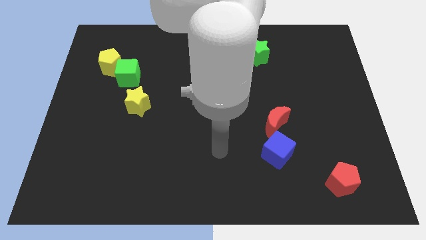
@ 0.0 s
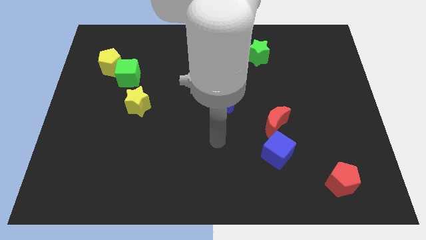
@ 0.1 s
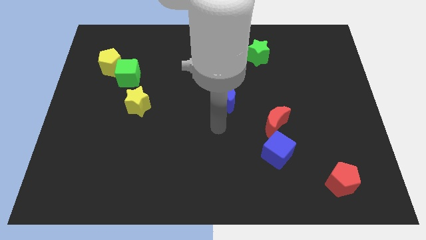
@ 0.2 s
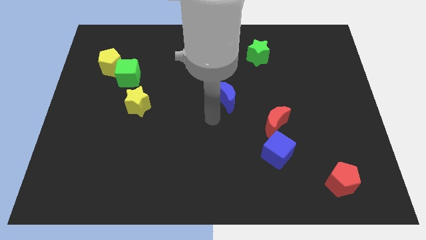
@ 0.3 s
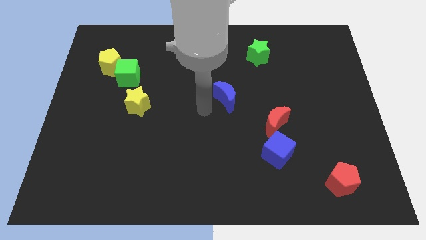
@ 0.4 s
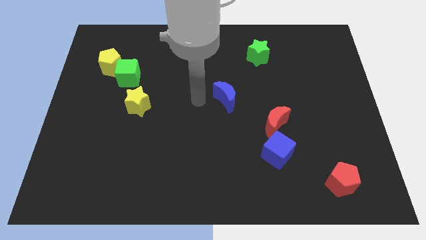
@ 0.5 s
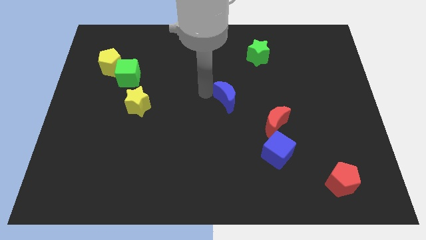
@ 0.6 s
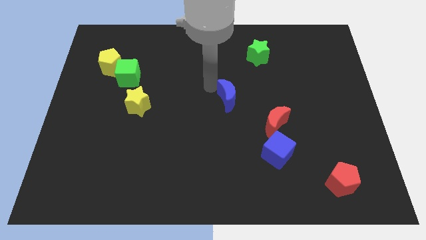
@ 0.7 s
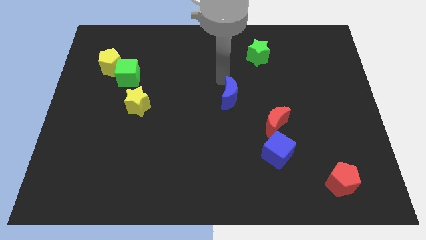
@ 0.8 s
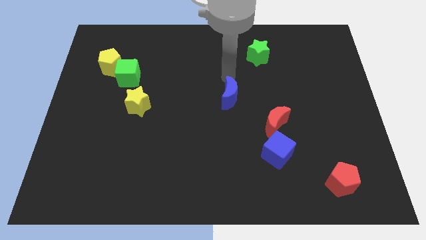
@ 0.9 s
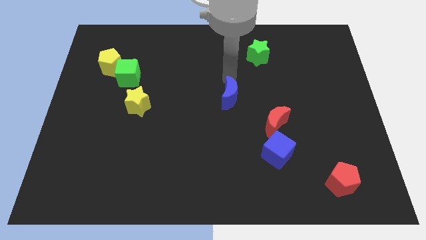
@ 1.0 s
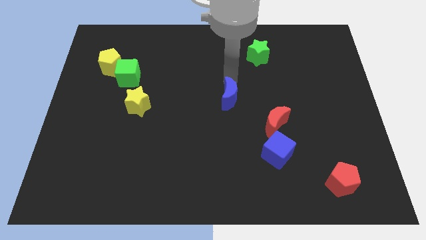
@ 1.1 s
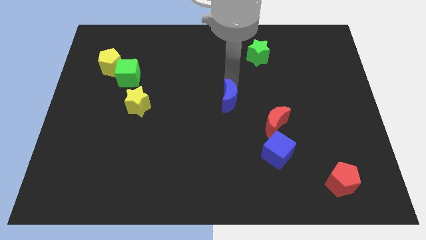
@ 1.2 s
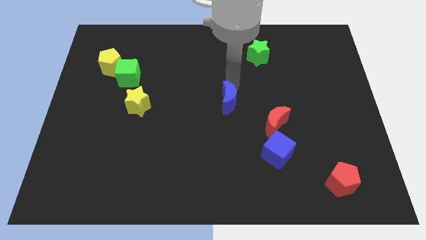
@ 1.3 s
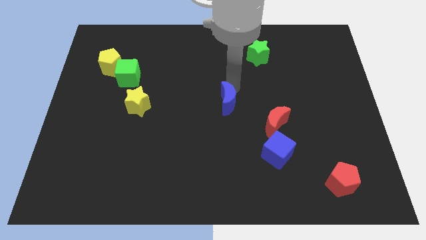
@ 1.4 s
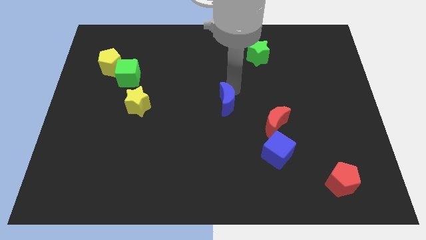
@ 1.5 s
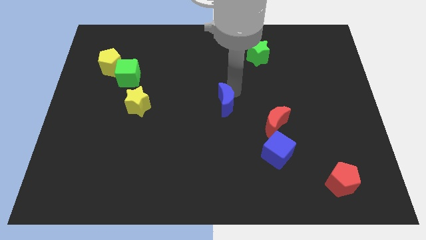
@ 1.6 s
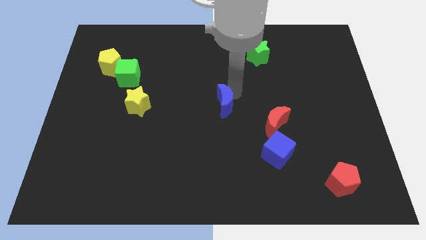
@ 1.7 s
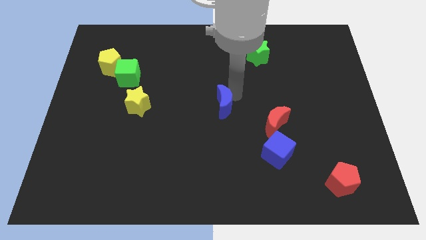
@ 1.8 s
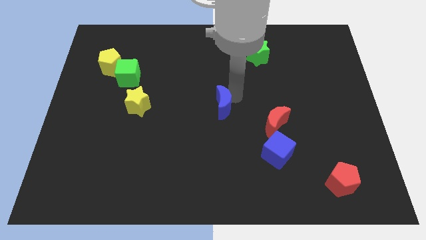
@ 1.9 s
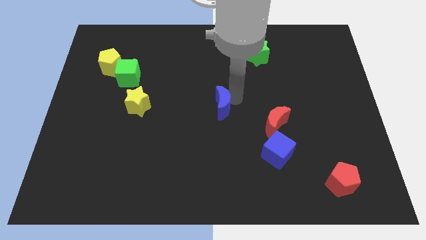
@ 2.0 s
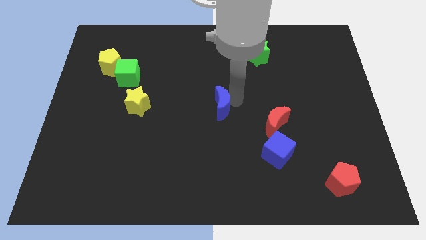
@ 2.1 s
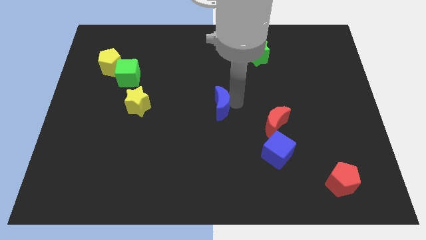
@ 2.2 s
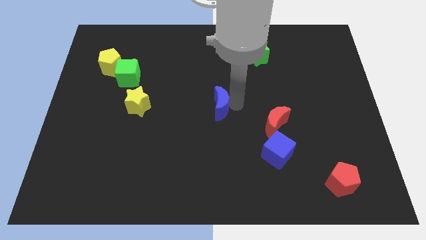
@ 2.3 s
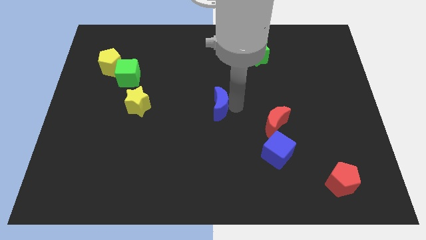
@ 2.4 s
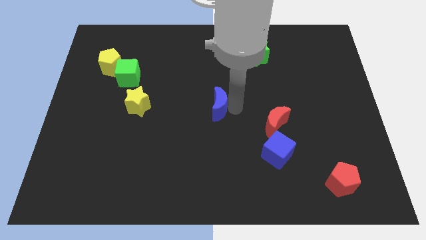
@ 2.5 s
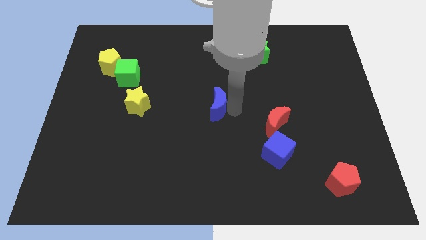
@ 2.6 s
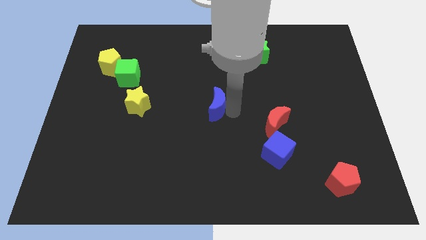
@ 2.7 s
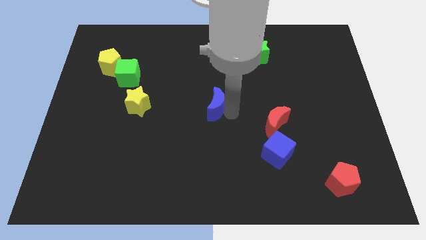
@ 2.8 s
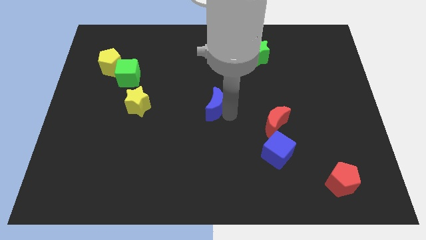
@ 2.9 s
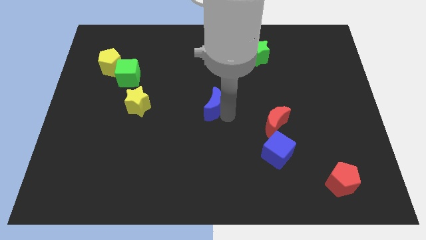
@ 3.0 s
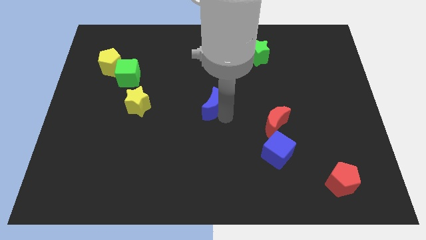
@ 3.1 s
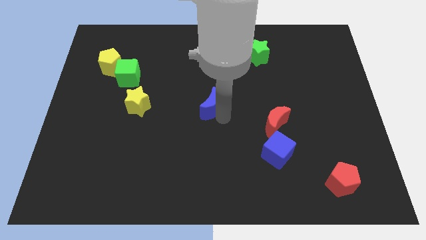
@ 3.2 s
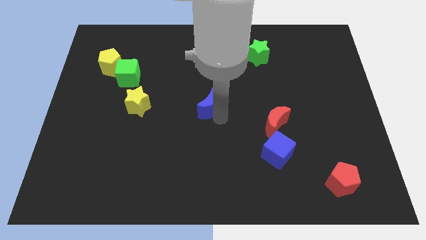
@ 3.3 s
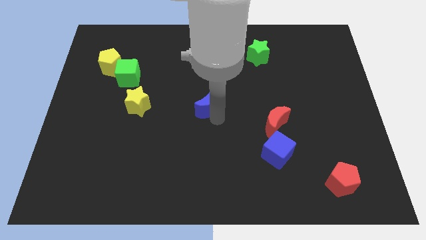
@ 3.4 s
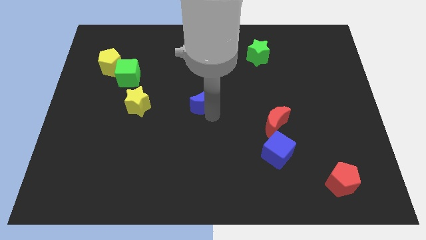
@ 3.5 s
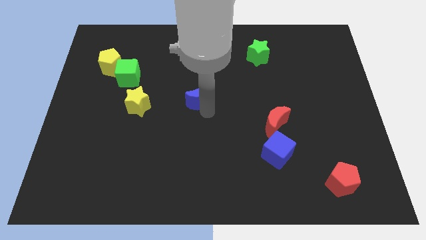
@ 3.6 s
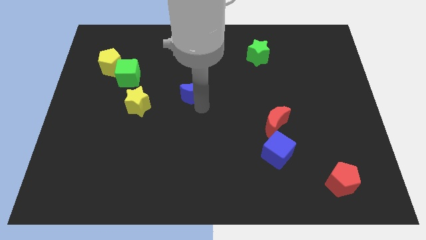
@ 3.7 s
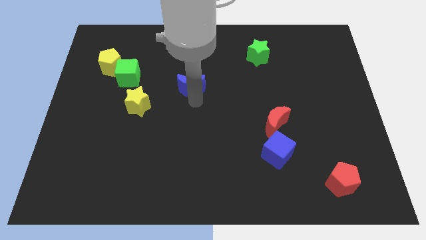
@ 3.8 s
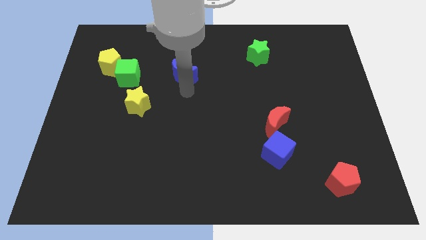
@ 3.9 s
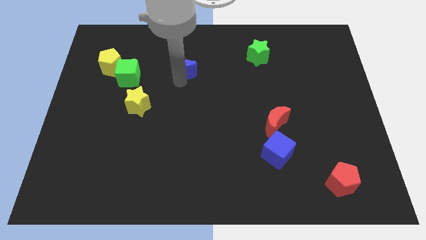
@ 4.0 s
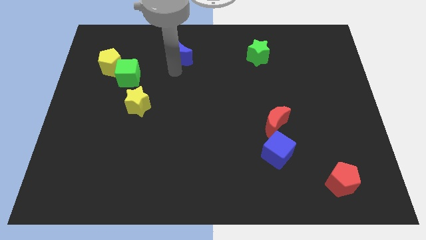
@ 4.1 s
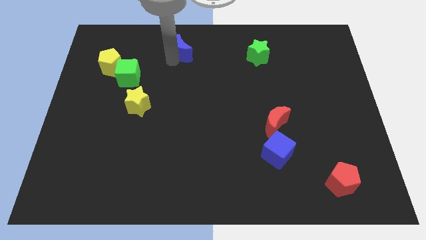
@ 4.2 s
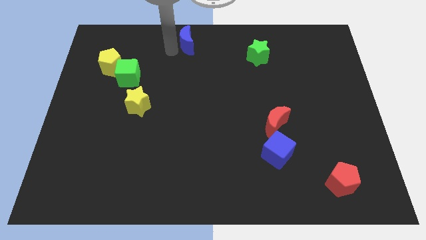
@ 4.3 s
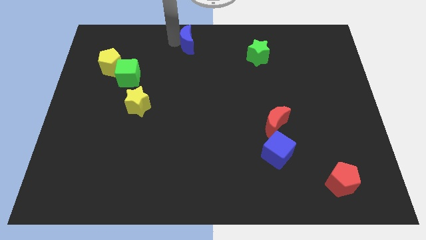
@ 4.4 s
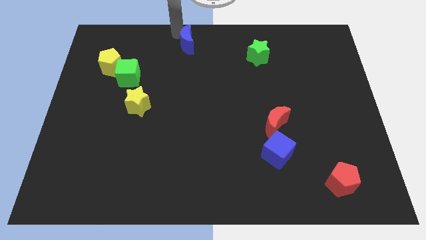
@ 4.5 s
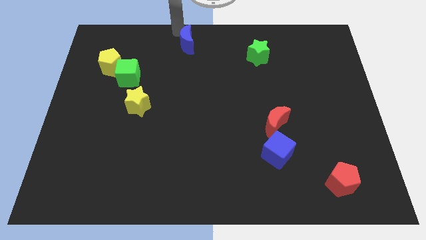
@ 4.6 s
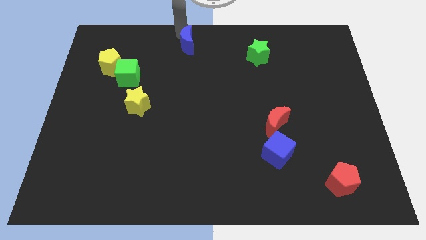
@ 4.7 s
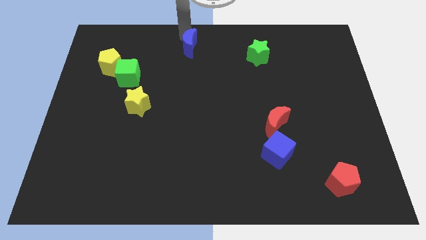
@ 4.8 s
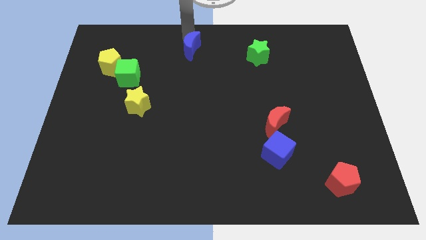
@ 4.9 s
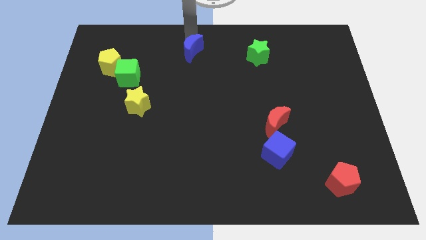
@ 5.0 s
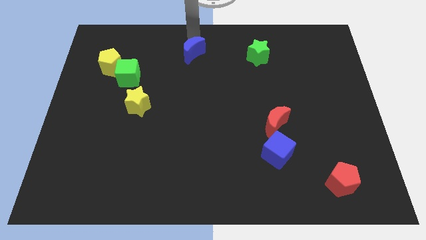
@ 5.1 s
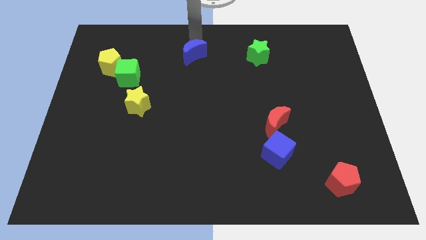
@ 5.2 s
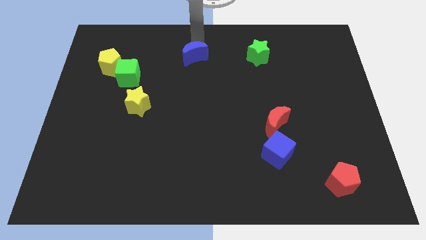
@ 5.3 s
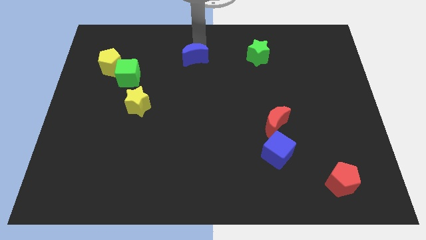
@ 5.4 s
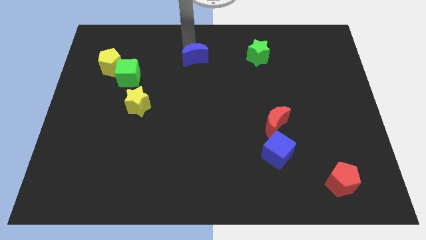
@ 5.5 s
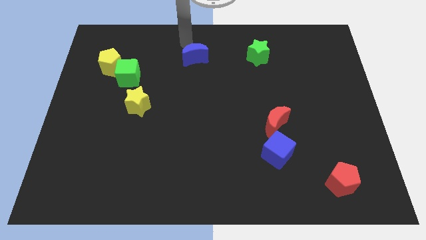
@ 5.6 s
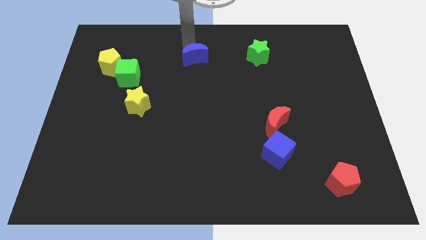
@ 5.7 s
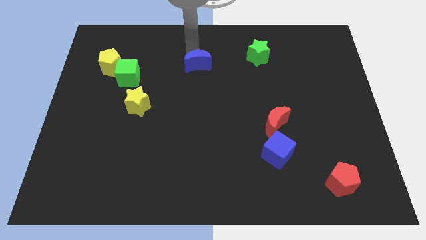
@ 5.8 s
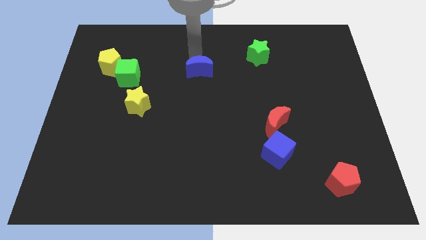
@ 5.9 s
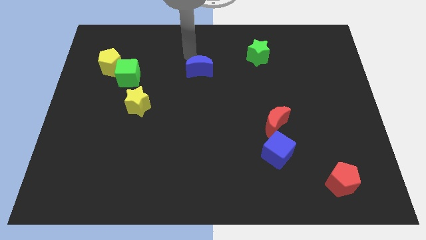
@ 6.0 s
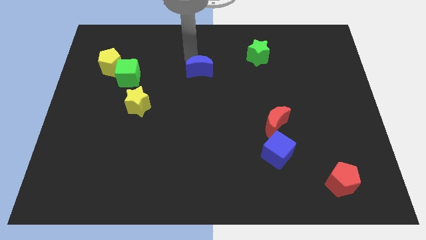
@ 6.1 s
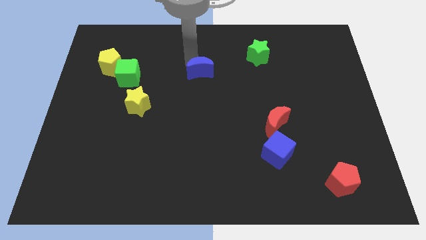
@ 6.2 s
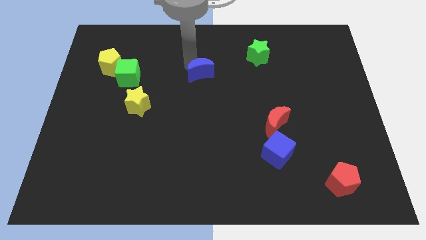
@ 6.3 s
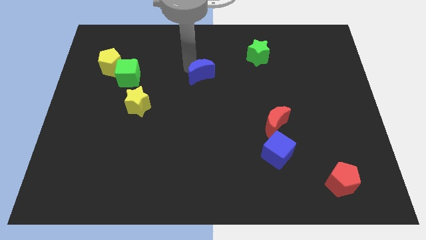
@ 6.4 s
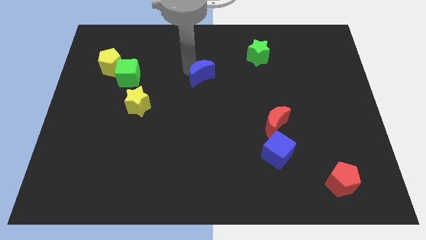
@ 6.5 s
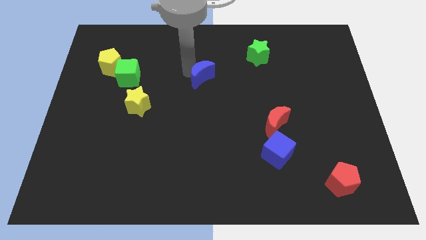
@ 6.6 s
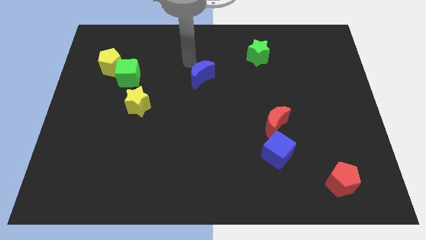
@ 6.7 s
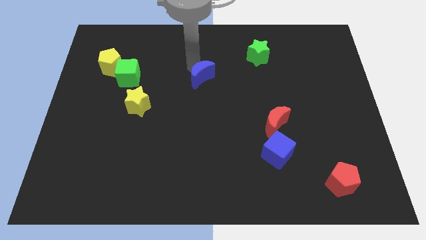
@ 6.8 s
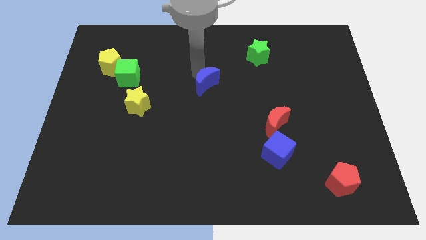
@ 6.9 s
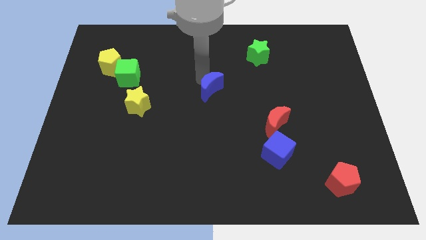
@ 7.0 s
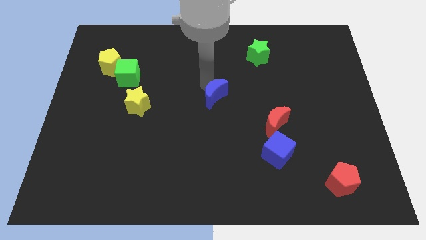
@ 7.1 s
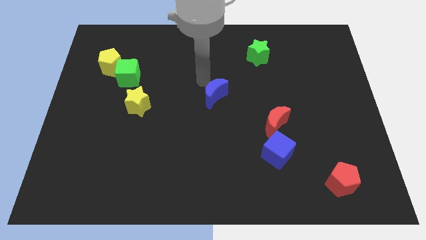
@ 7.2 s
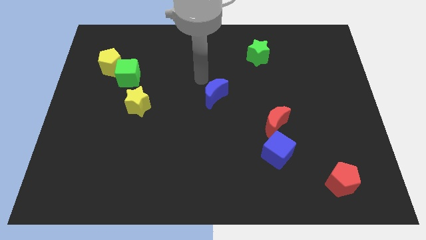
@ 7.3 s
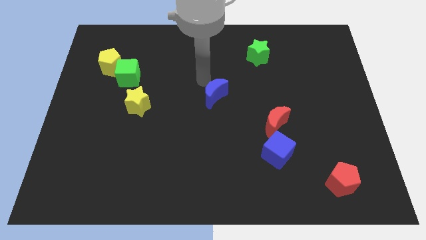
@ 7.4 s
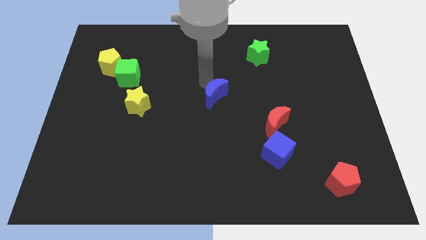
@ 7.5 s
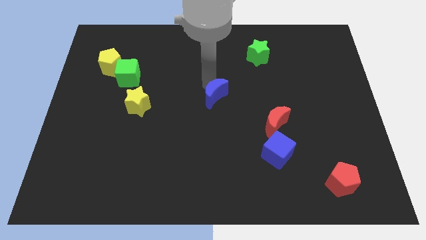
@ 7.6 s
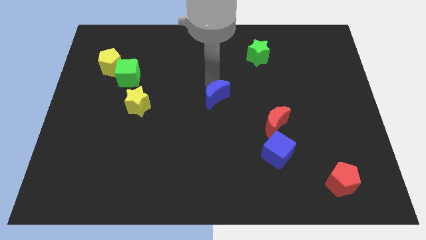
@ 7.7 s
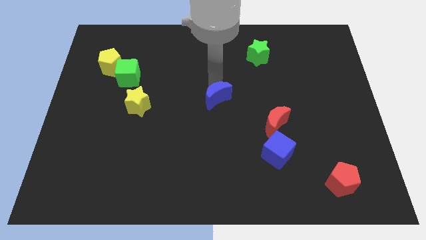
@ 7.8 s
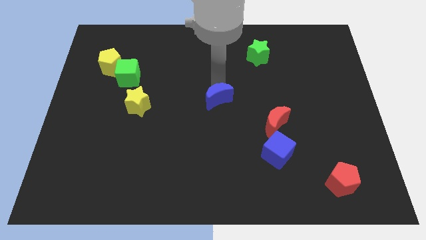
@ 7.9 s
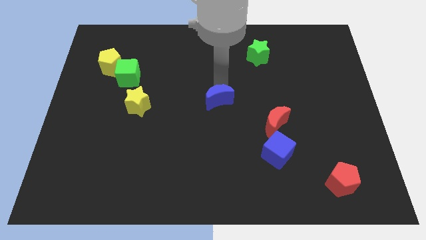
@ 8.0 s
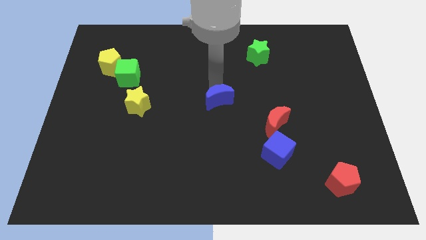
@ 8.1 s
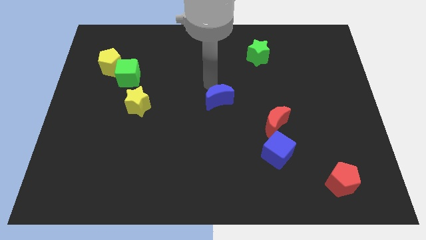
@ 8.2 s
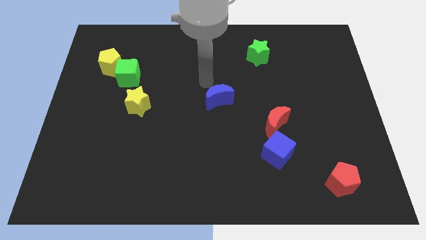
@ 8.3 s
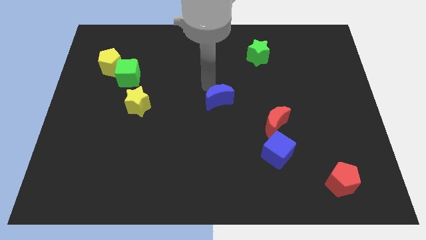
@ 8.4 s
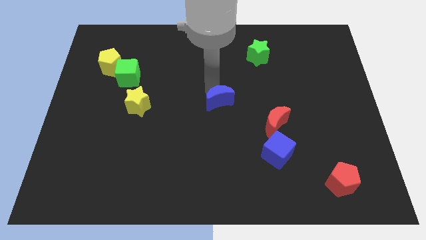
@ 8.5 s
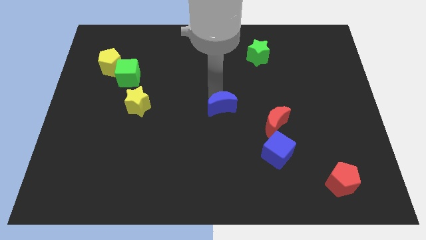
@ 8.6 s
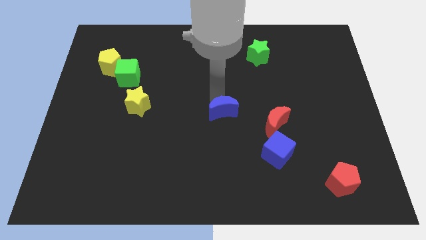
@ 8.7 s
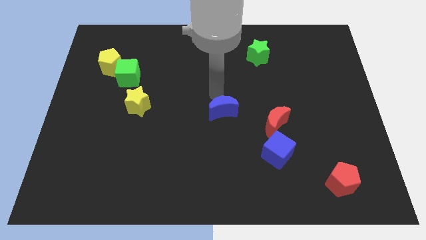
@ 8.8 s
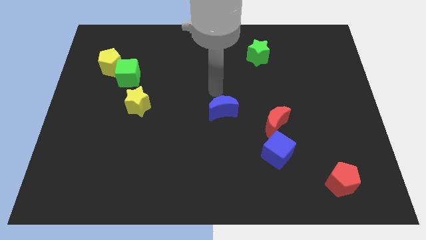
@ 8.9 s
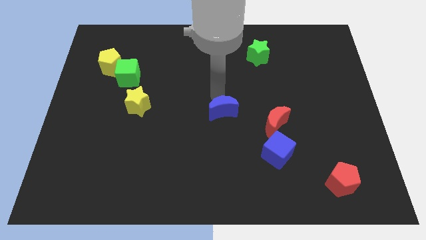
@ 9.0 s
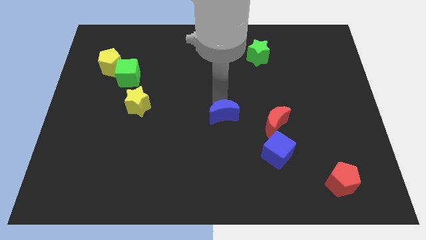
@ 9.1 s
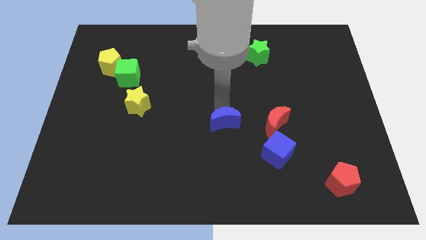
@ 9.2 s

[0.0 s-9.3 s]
move the blue moon a little bit downwards
